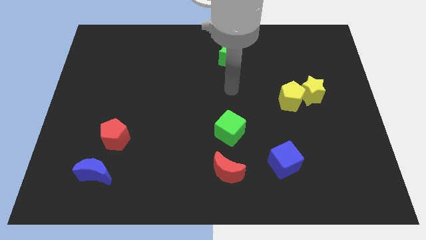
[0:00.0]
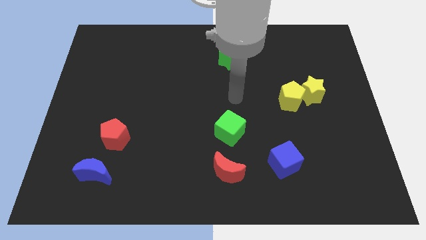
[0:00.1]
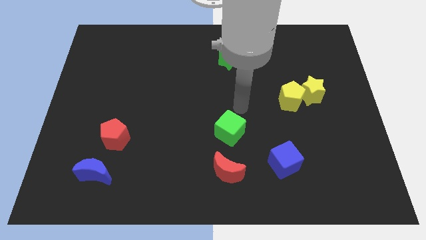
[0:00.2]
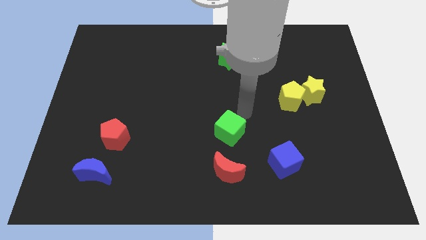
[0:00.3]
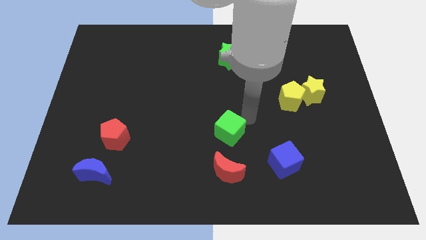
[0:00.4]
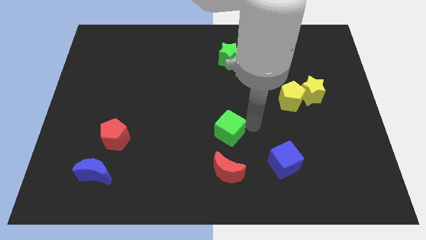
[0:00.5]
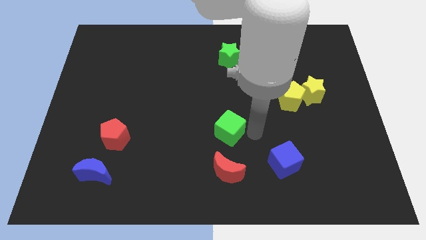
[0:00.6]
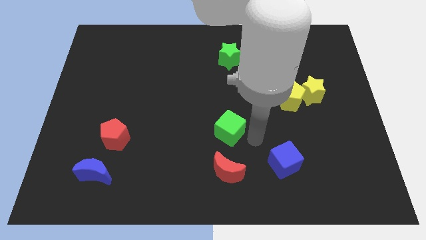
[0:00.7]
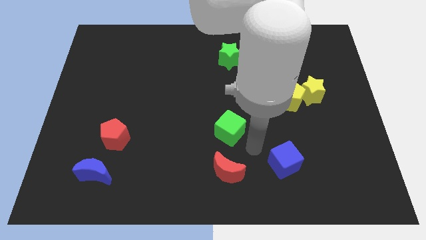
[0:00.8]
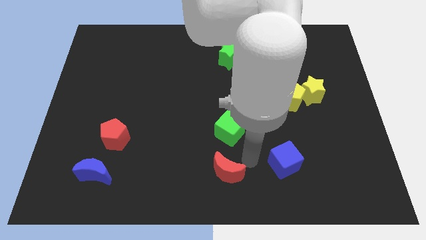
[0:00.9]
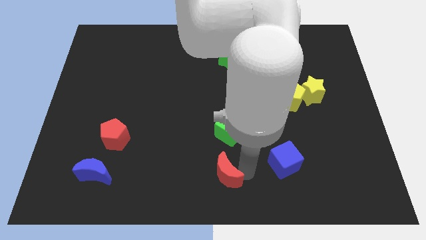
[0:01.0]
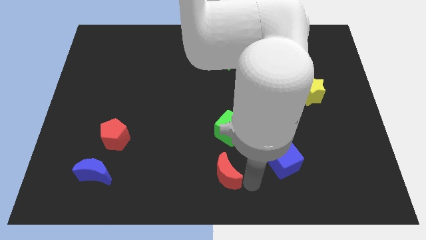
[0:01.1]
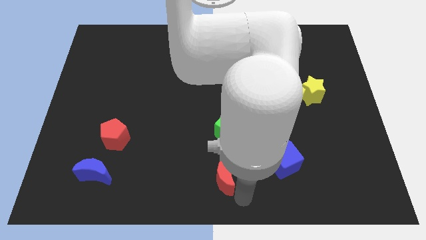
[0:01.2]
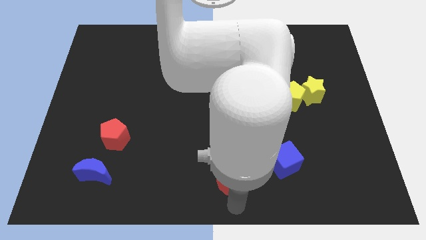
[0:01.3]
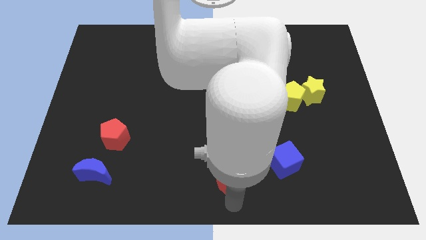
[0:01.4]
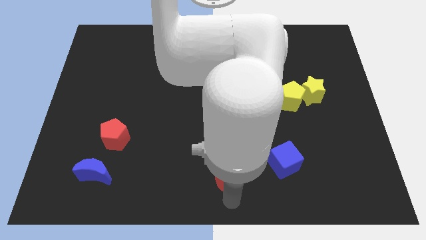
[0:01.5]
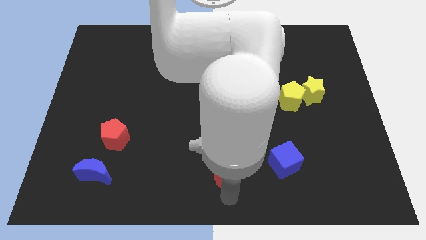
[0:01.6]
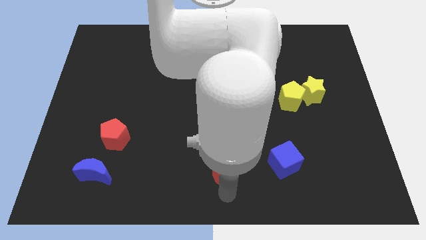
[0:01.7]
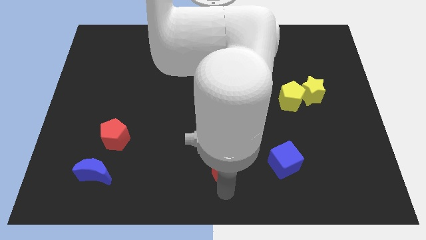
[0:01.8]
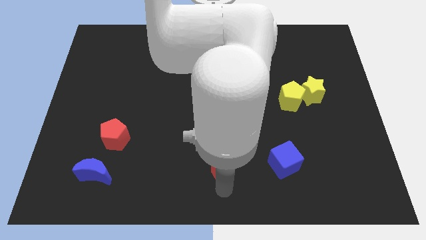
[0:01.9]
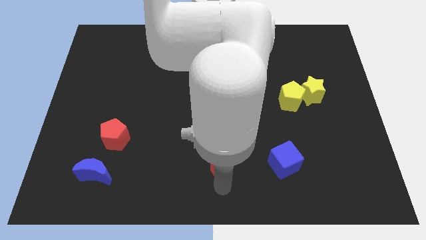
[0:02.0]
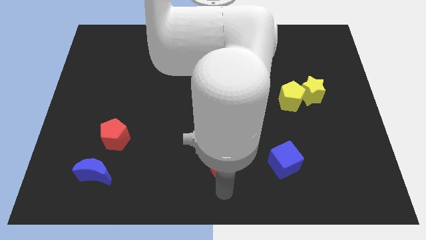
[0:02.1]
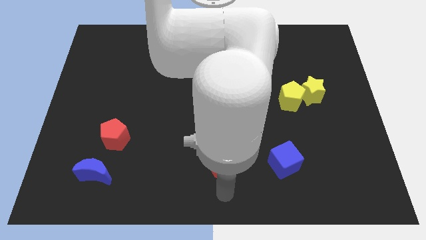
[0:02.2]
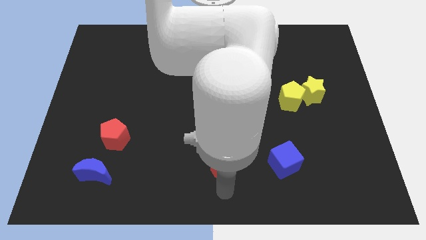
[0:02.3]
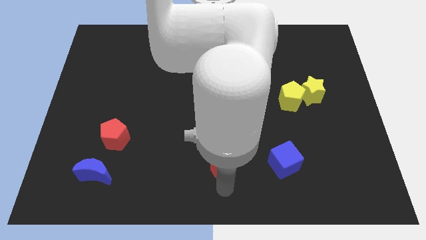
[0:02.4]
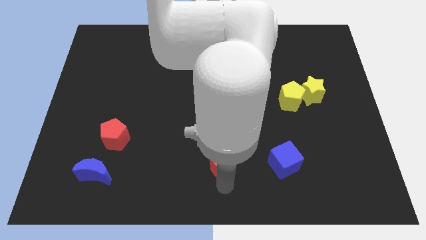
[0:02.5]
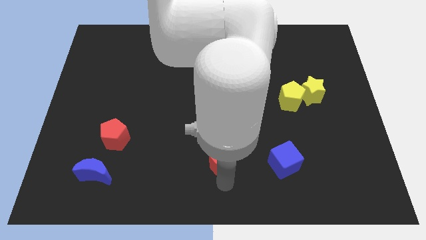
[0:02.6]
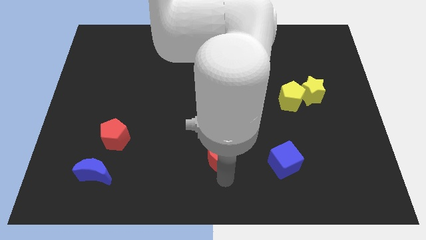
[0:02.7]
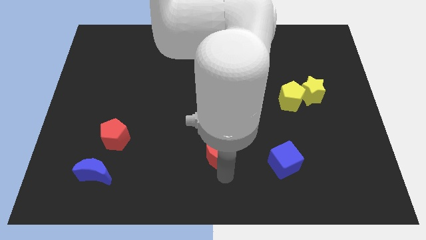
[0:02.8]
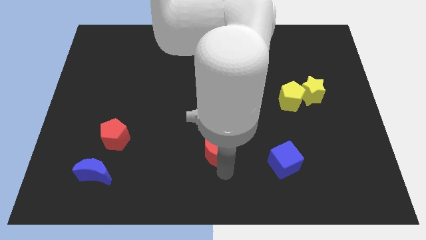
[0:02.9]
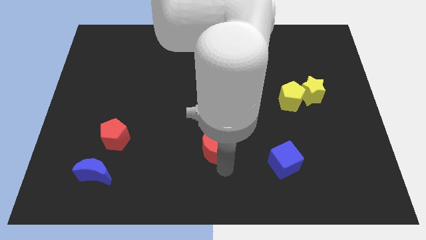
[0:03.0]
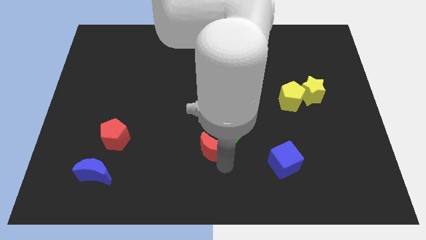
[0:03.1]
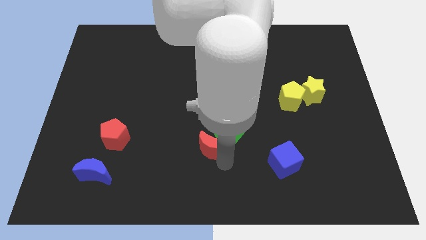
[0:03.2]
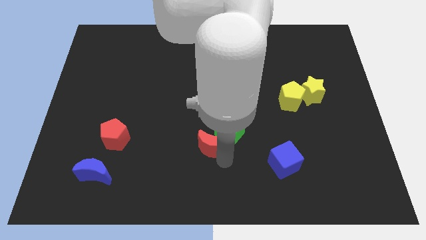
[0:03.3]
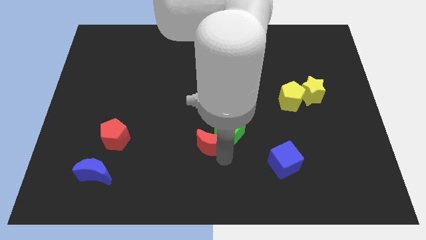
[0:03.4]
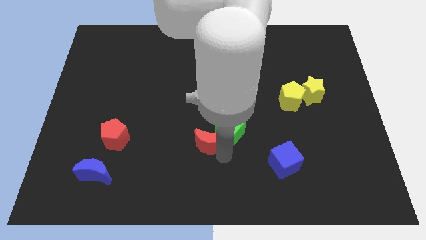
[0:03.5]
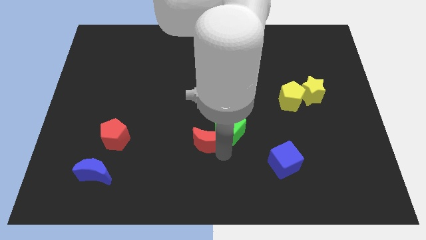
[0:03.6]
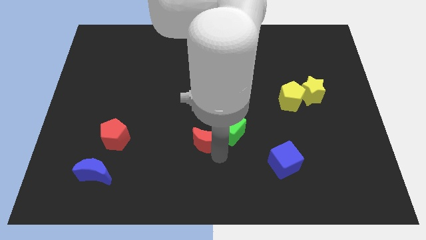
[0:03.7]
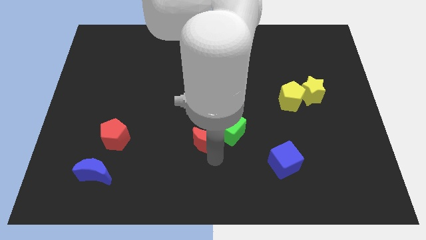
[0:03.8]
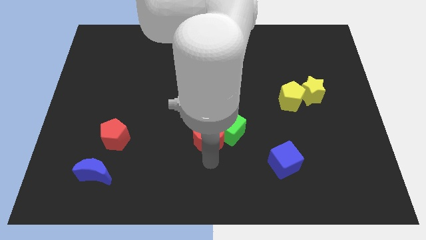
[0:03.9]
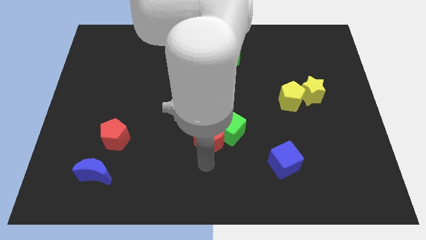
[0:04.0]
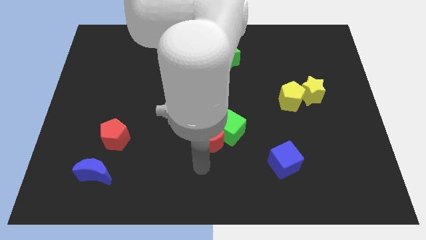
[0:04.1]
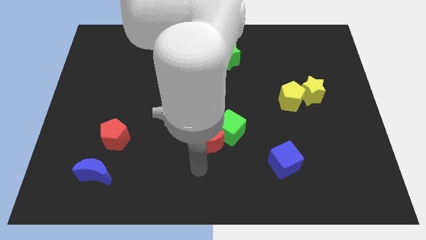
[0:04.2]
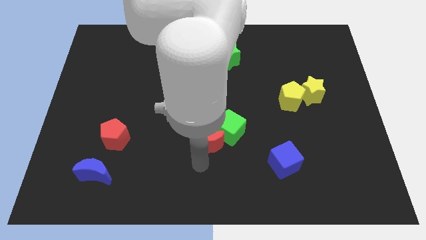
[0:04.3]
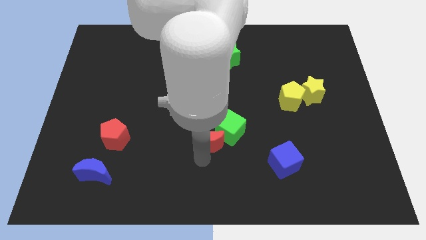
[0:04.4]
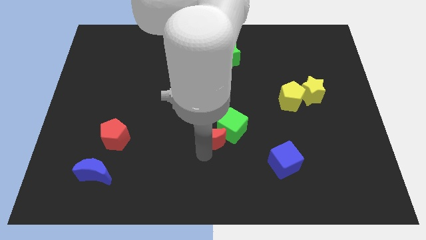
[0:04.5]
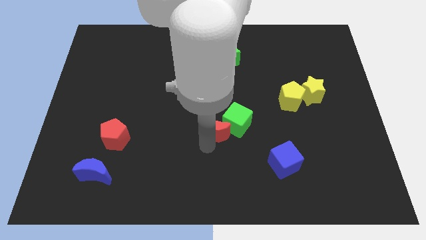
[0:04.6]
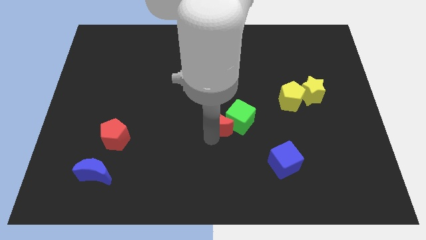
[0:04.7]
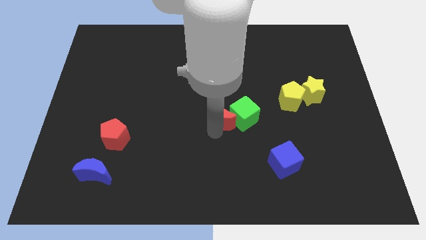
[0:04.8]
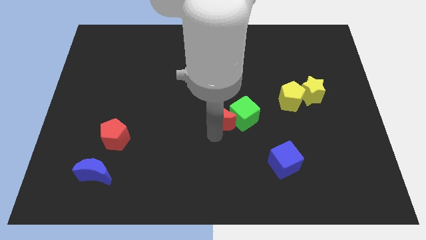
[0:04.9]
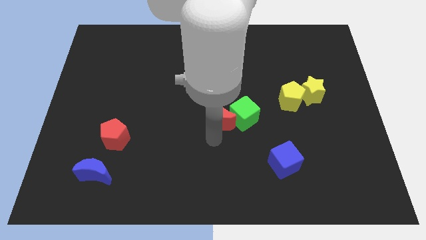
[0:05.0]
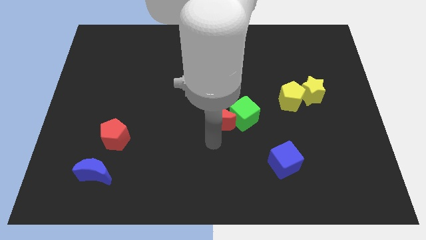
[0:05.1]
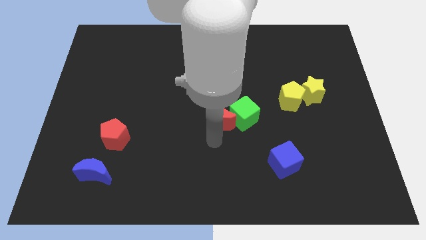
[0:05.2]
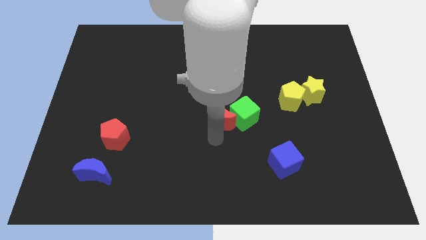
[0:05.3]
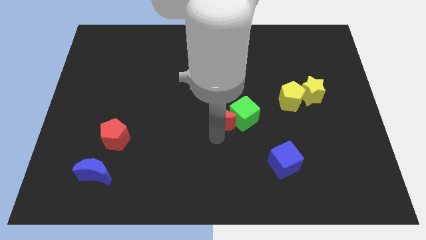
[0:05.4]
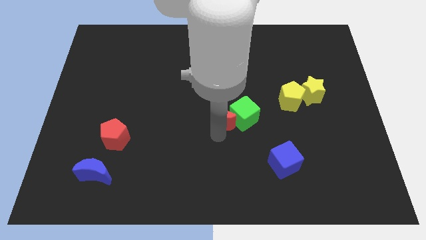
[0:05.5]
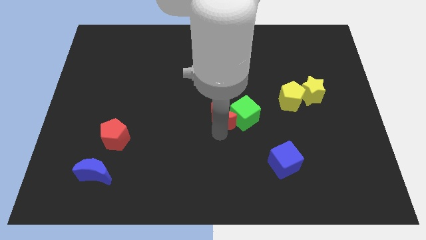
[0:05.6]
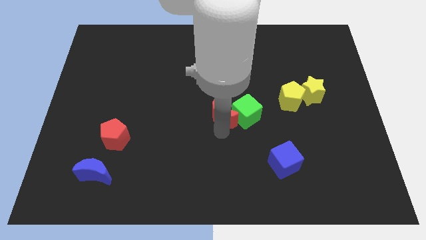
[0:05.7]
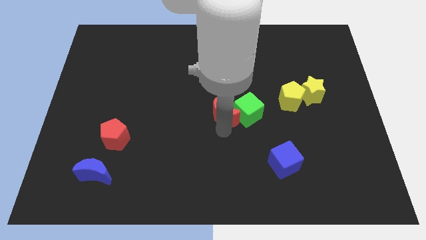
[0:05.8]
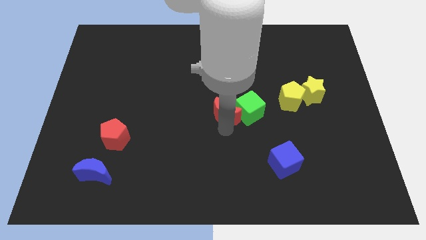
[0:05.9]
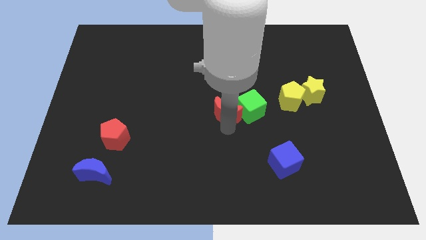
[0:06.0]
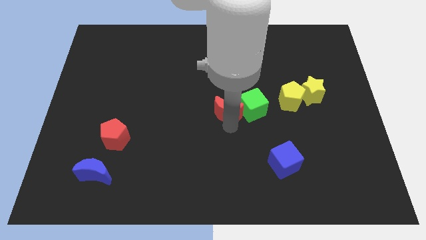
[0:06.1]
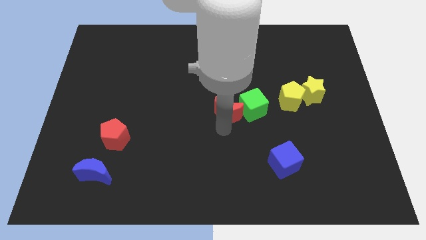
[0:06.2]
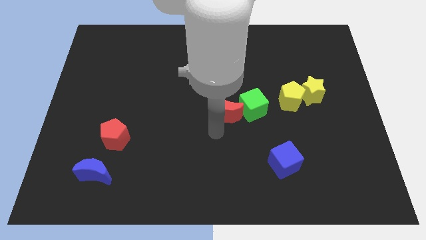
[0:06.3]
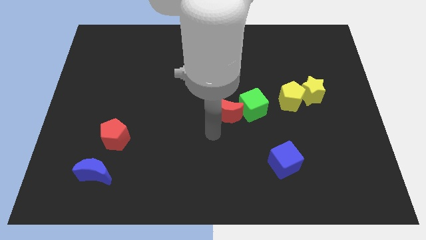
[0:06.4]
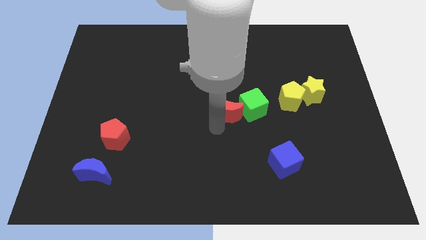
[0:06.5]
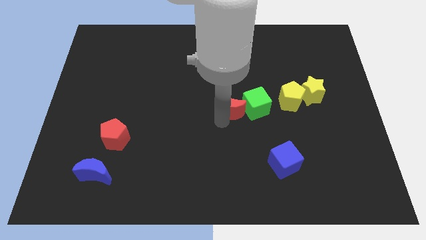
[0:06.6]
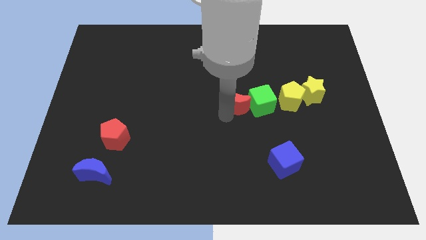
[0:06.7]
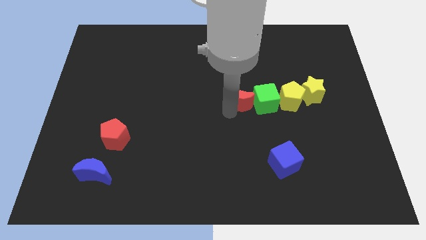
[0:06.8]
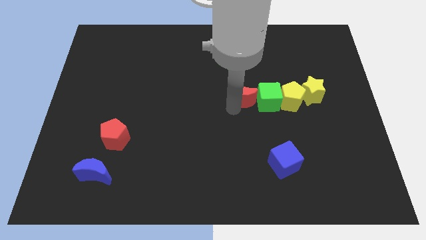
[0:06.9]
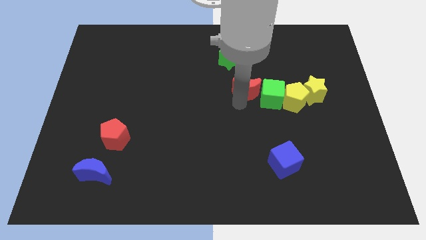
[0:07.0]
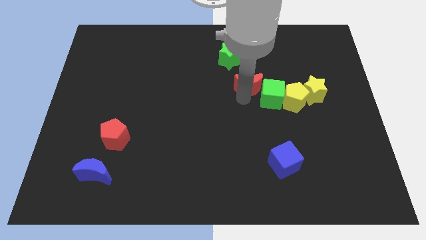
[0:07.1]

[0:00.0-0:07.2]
put the red moon to the bottom right side of the green star
